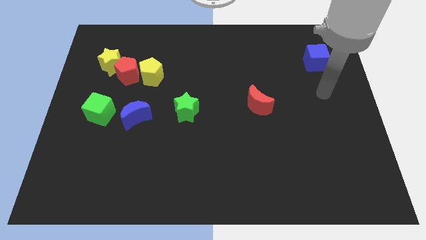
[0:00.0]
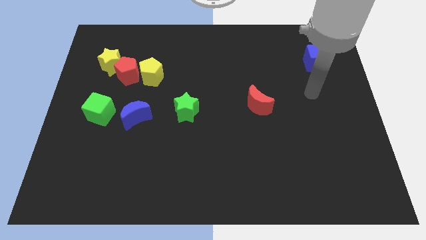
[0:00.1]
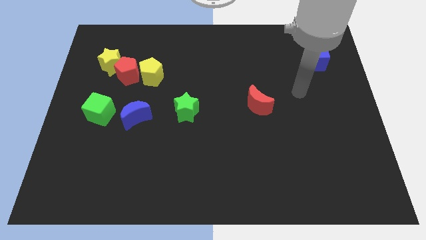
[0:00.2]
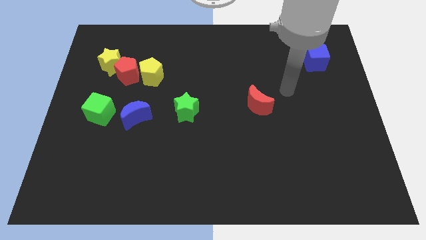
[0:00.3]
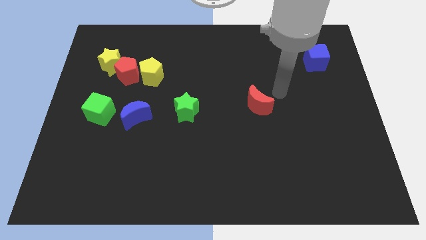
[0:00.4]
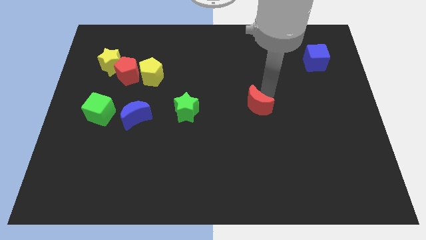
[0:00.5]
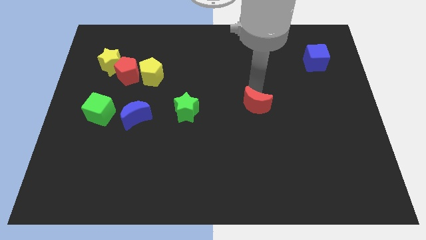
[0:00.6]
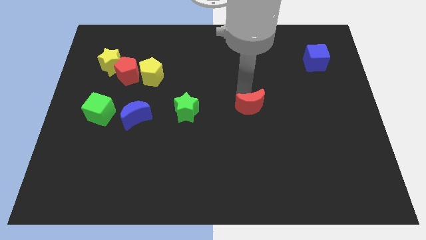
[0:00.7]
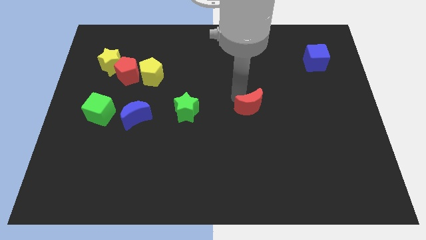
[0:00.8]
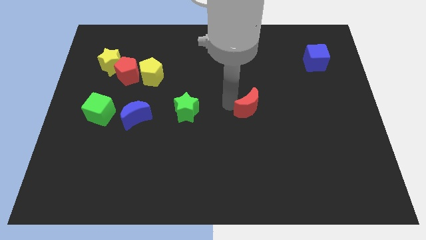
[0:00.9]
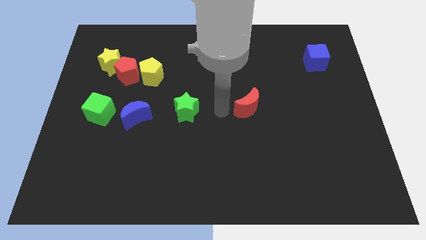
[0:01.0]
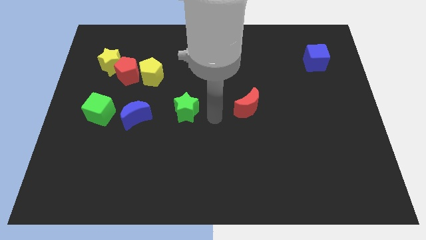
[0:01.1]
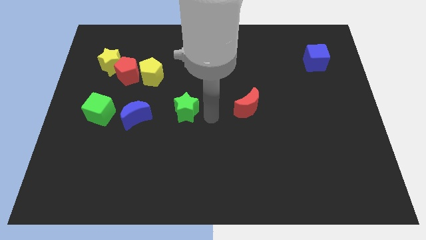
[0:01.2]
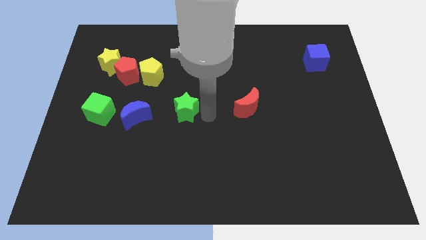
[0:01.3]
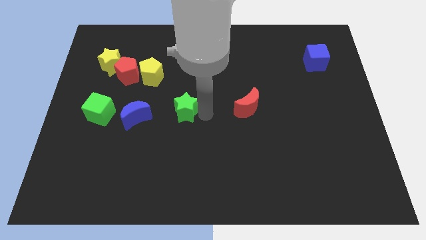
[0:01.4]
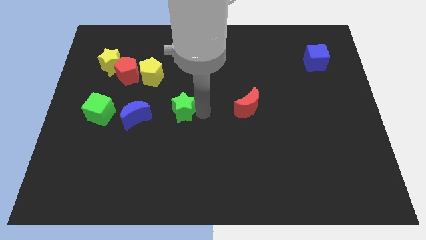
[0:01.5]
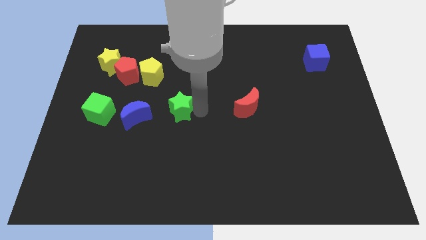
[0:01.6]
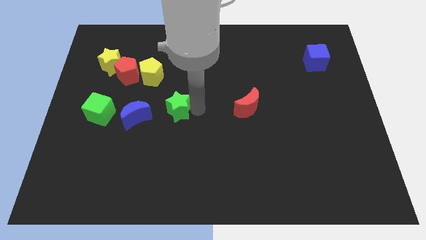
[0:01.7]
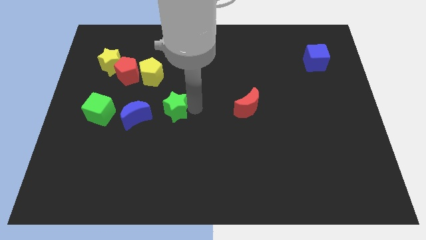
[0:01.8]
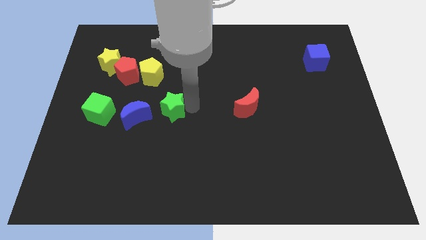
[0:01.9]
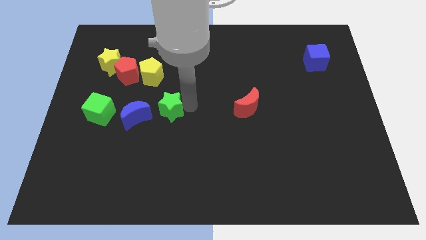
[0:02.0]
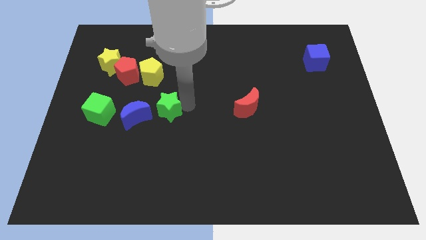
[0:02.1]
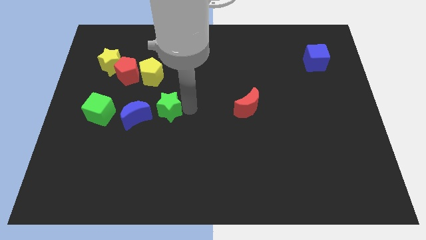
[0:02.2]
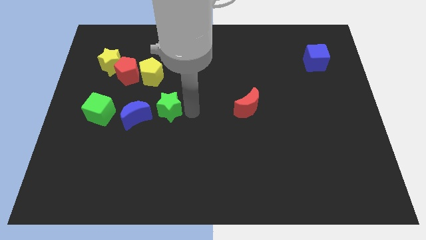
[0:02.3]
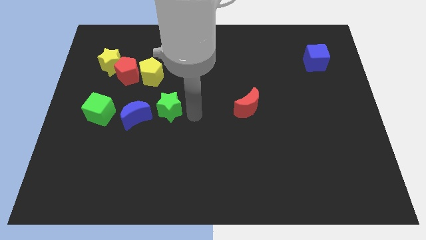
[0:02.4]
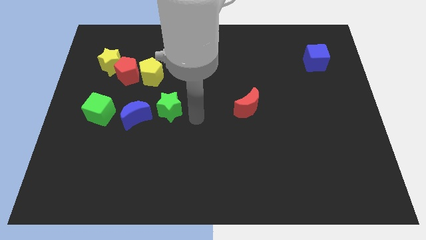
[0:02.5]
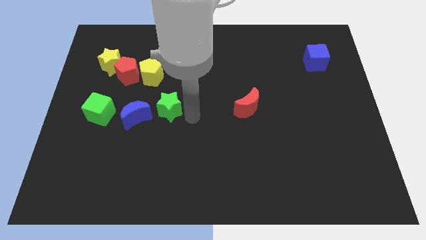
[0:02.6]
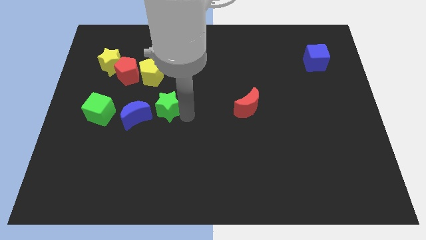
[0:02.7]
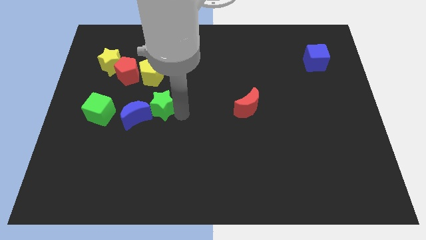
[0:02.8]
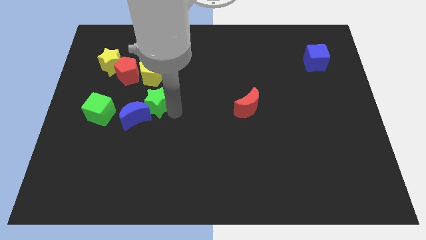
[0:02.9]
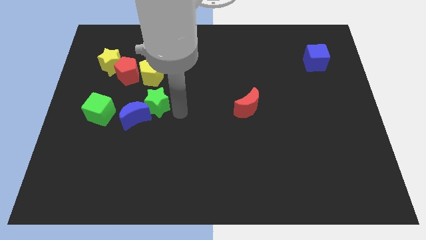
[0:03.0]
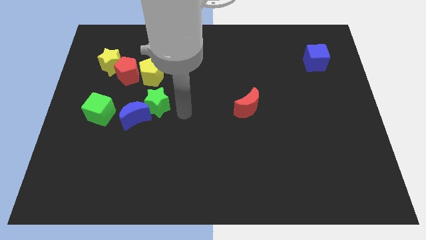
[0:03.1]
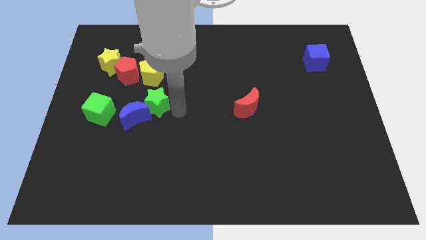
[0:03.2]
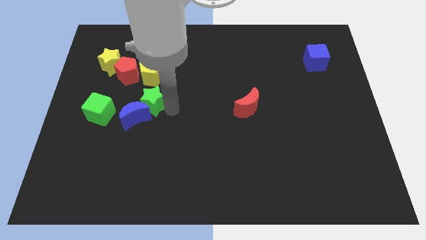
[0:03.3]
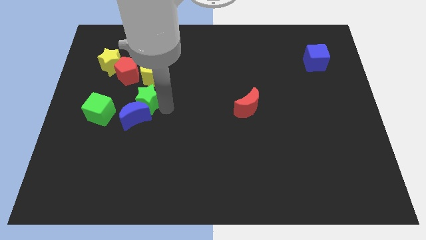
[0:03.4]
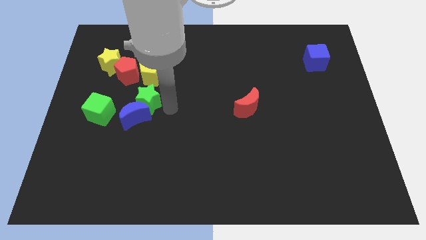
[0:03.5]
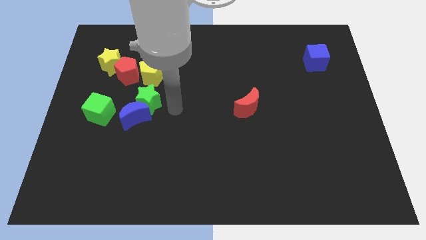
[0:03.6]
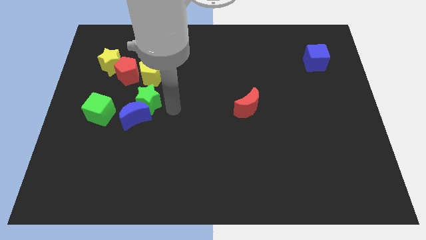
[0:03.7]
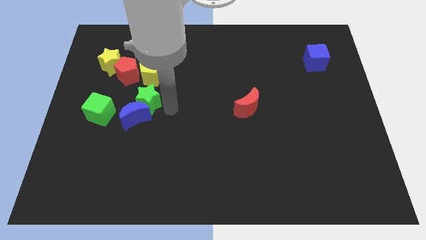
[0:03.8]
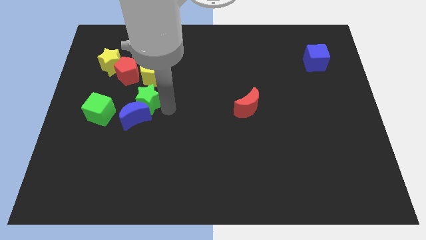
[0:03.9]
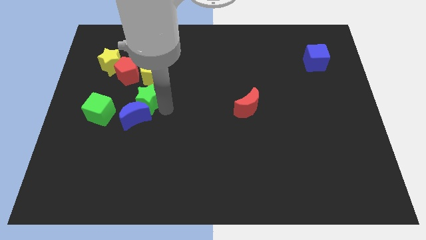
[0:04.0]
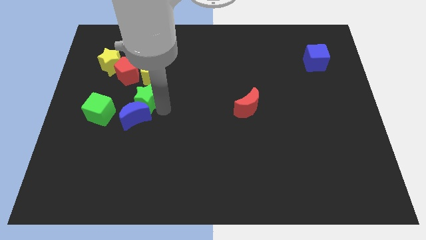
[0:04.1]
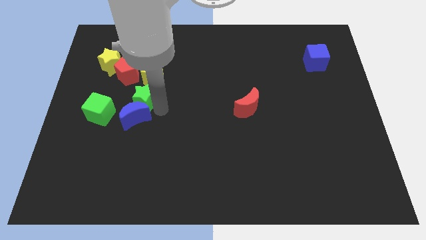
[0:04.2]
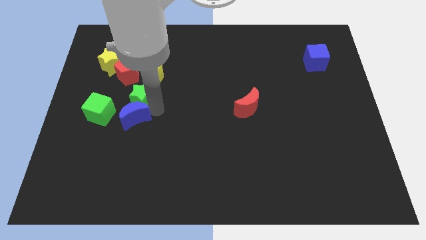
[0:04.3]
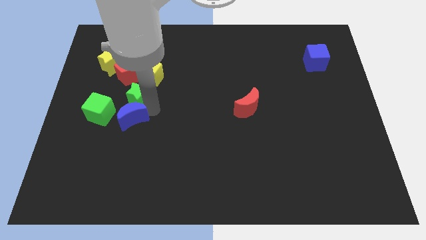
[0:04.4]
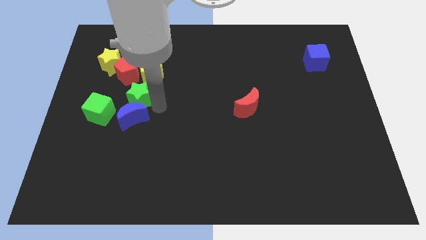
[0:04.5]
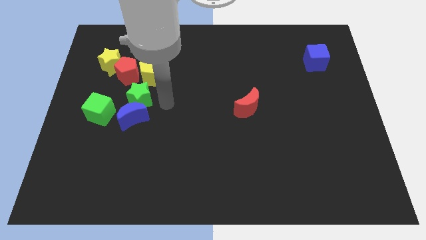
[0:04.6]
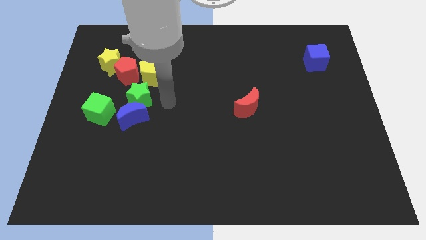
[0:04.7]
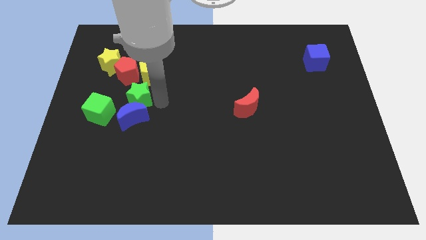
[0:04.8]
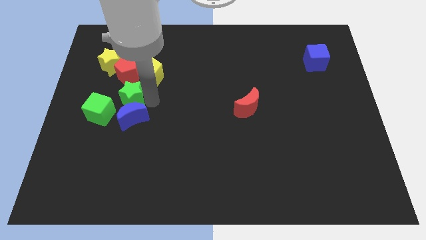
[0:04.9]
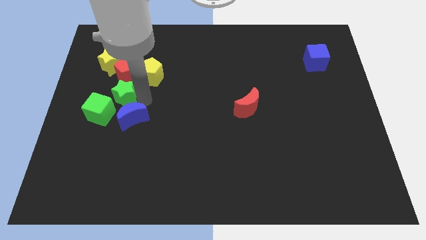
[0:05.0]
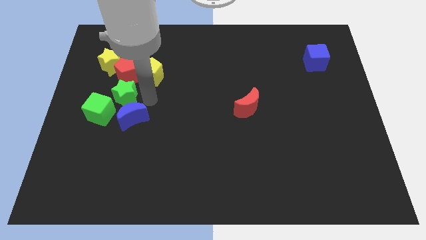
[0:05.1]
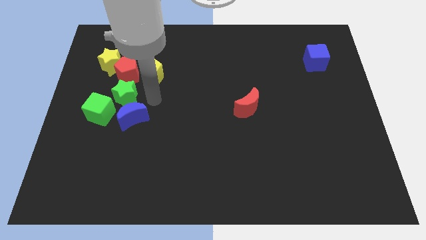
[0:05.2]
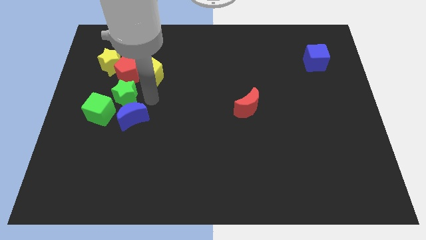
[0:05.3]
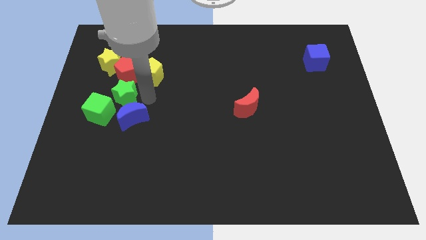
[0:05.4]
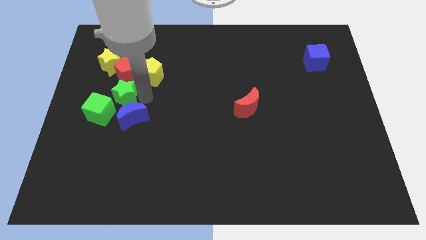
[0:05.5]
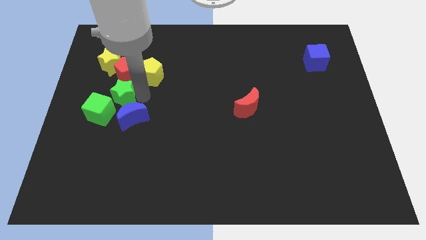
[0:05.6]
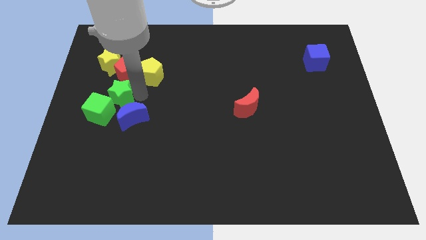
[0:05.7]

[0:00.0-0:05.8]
slide the green star to the bottom side of the yellow star
